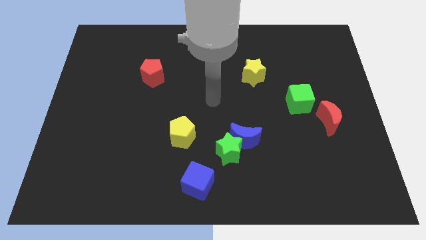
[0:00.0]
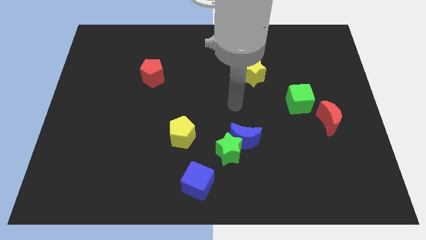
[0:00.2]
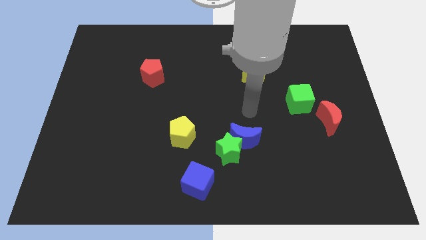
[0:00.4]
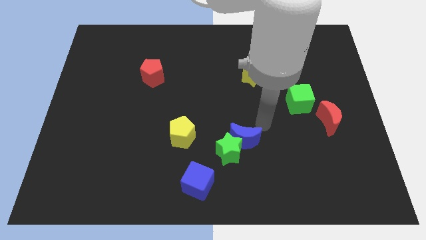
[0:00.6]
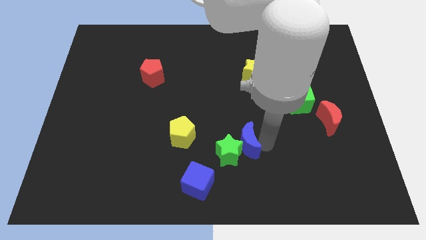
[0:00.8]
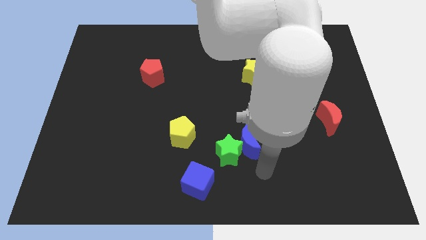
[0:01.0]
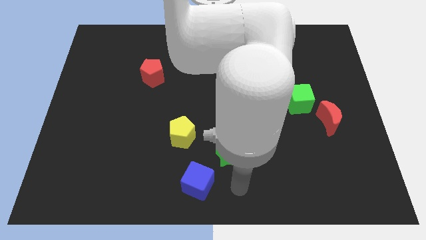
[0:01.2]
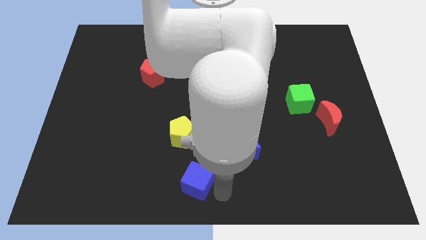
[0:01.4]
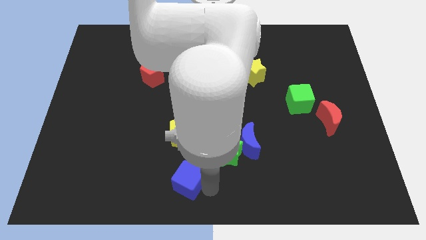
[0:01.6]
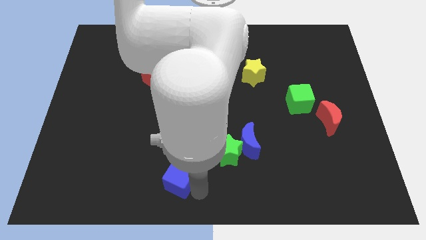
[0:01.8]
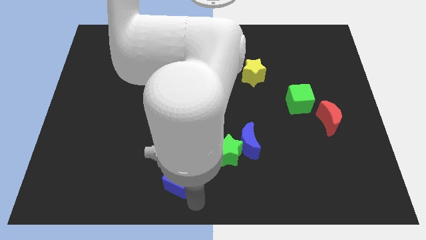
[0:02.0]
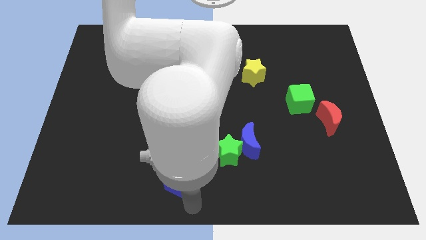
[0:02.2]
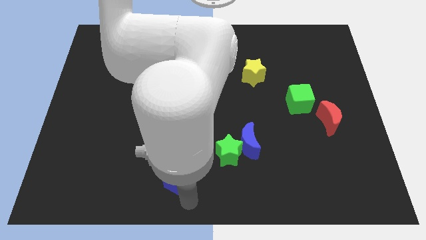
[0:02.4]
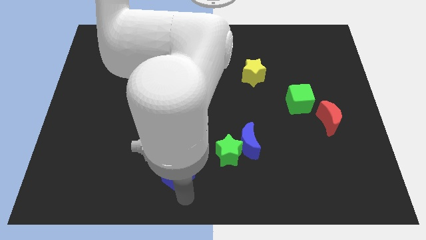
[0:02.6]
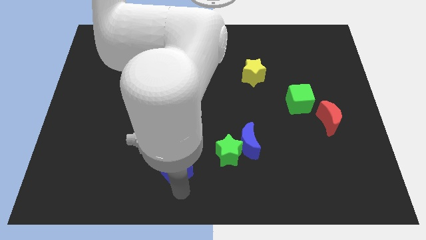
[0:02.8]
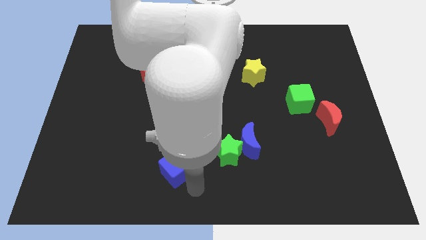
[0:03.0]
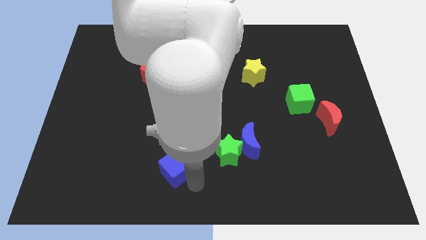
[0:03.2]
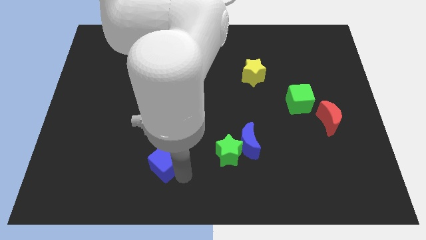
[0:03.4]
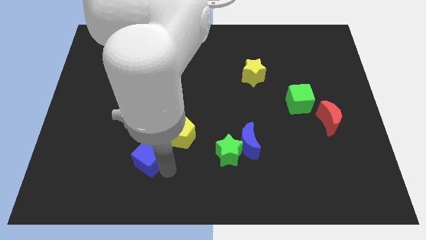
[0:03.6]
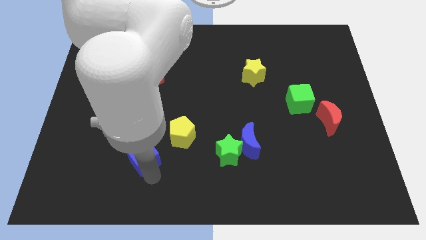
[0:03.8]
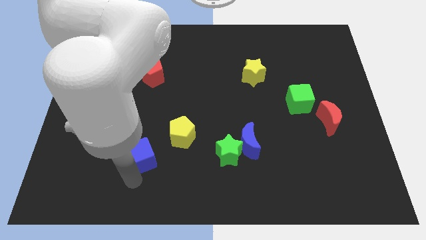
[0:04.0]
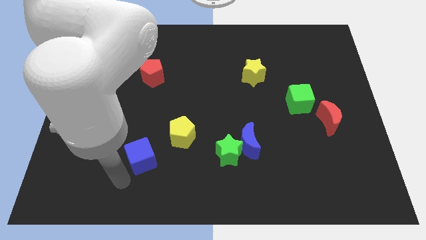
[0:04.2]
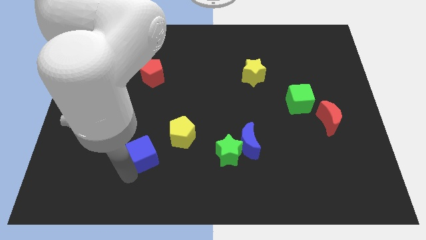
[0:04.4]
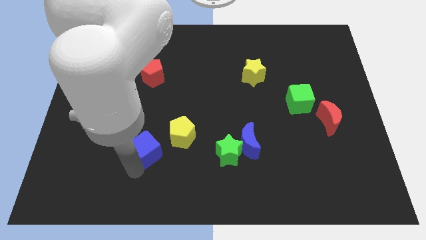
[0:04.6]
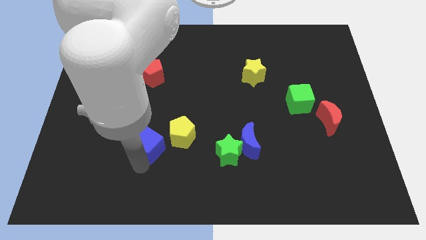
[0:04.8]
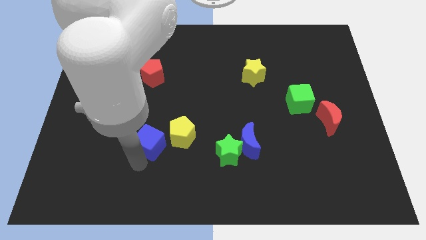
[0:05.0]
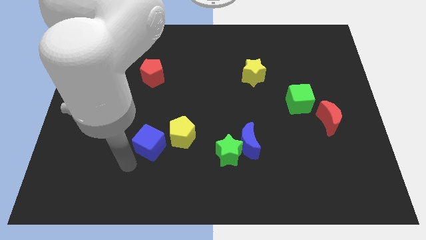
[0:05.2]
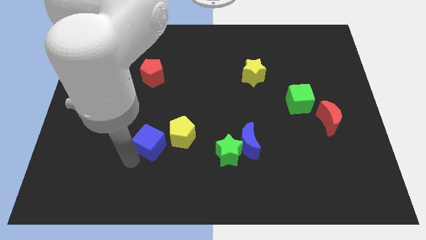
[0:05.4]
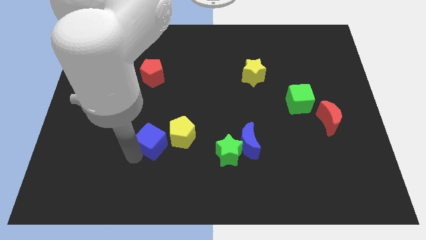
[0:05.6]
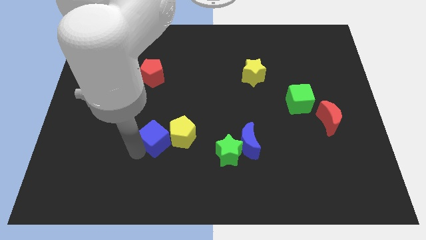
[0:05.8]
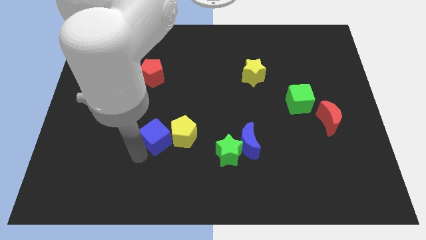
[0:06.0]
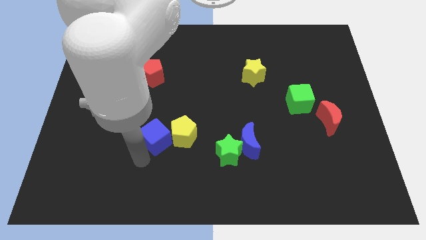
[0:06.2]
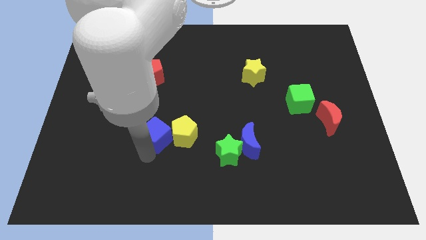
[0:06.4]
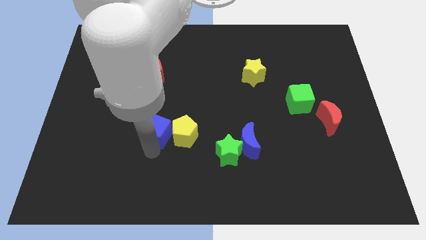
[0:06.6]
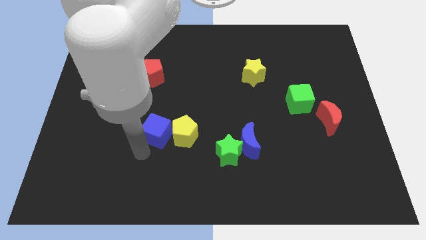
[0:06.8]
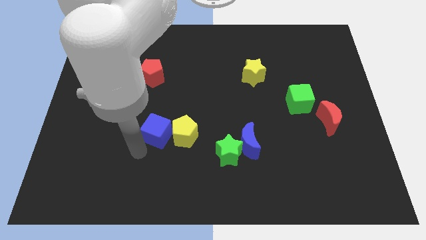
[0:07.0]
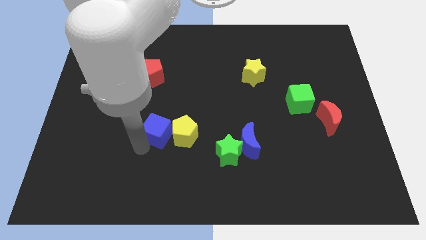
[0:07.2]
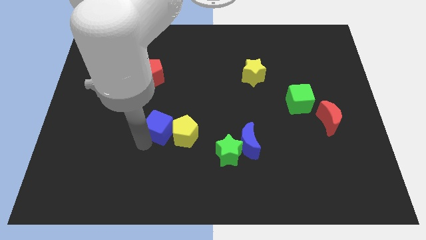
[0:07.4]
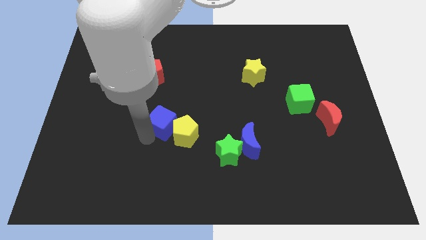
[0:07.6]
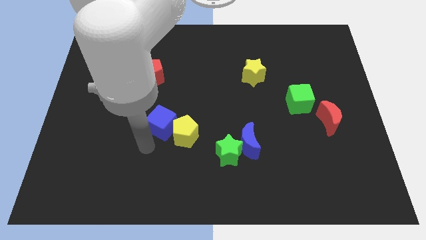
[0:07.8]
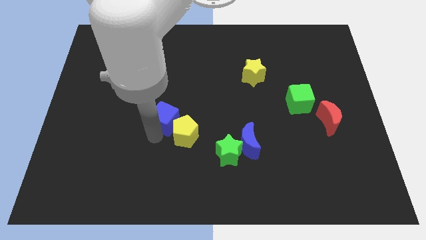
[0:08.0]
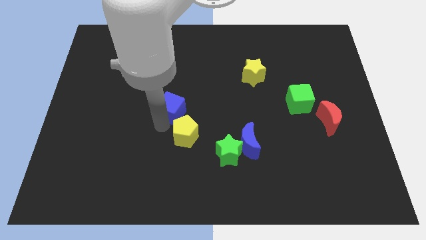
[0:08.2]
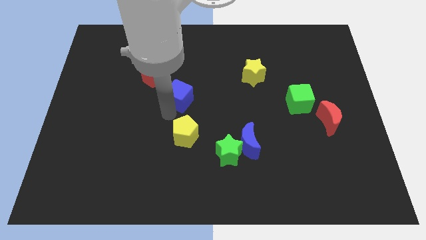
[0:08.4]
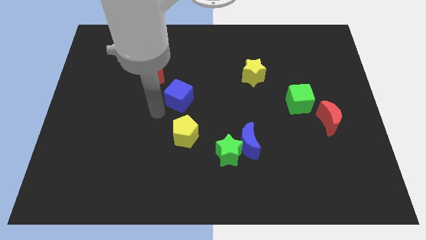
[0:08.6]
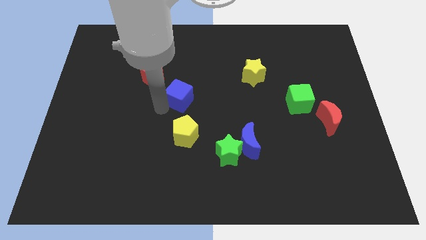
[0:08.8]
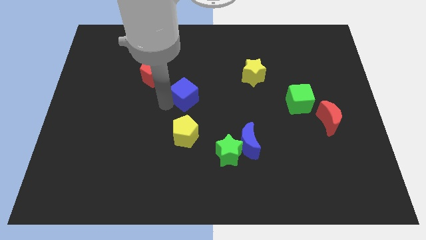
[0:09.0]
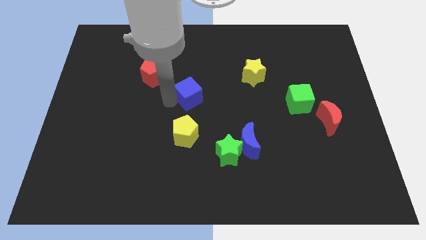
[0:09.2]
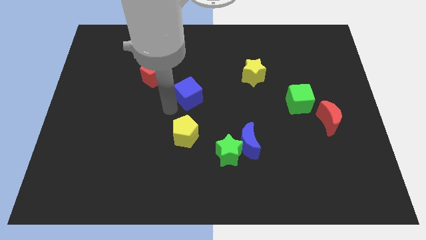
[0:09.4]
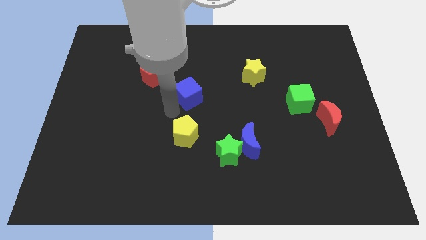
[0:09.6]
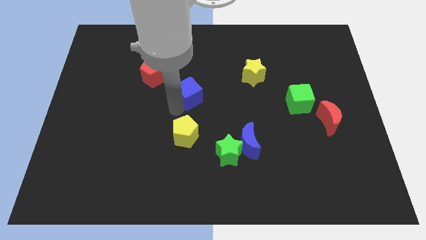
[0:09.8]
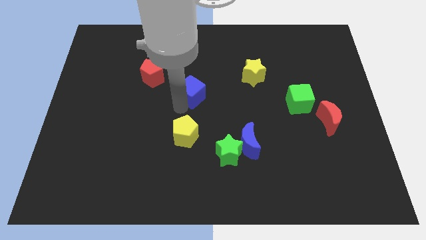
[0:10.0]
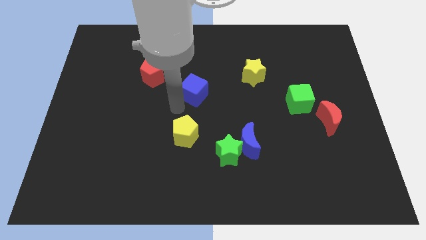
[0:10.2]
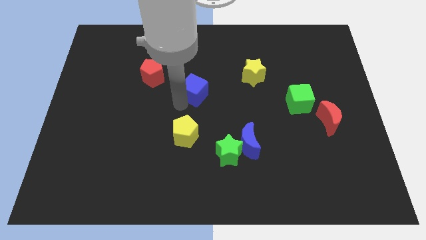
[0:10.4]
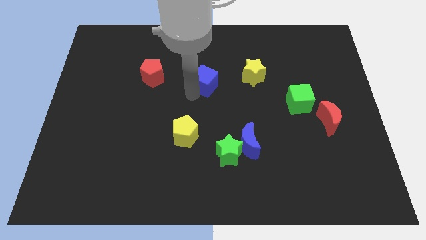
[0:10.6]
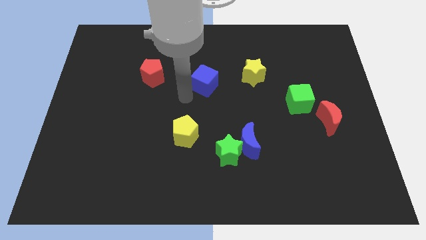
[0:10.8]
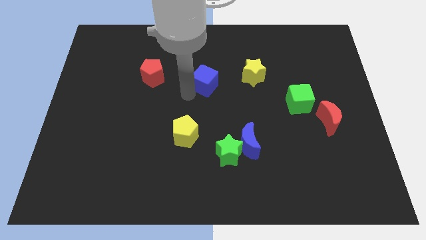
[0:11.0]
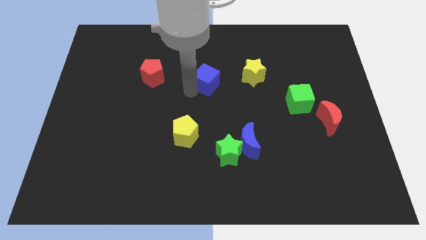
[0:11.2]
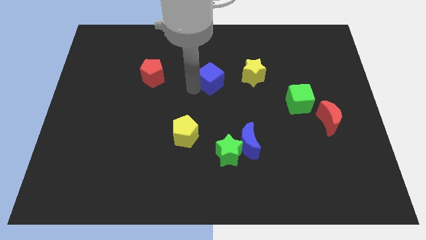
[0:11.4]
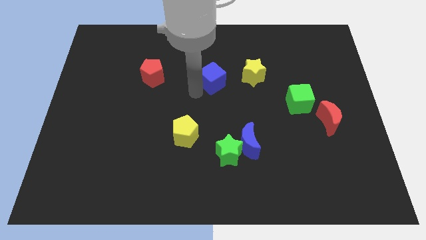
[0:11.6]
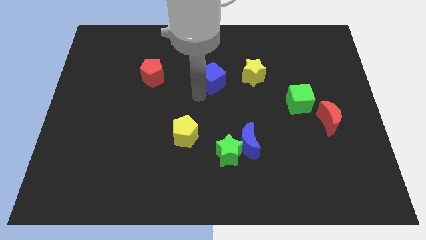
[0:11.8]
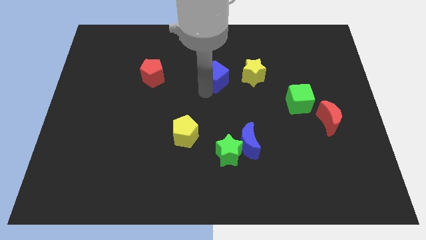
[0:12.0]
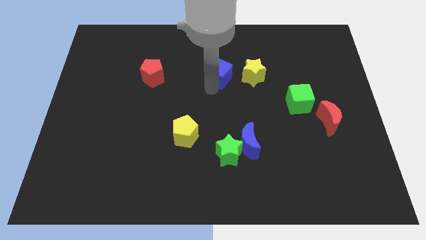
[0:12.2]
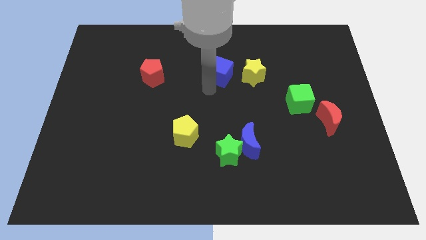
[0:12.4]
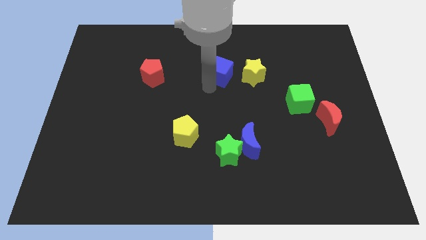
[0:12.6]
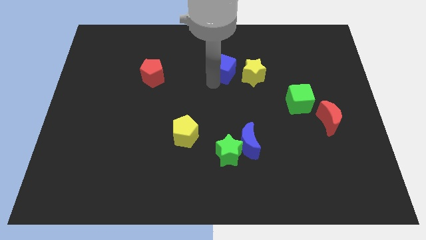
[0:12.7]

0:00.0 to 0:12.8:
slide the blue cube diagonally up and to the left of the yellow star
